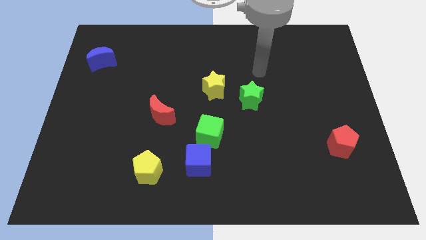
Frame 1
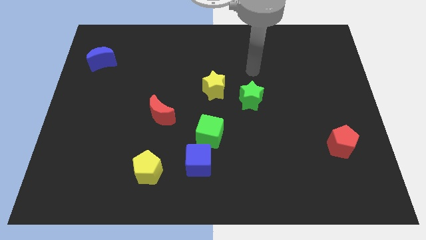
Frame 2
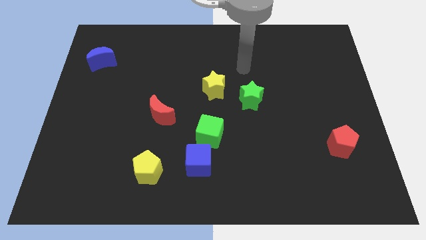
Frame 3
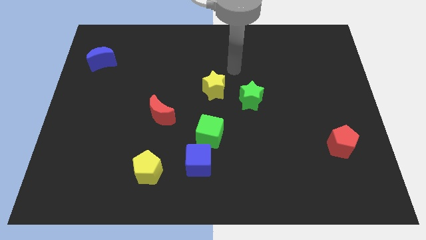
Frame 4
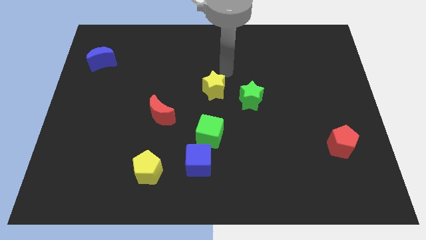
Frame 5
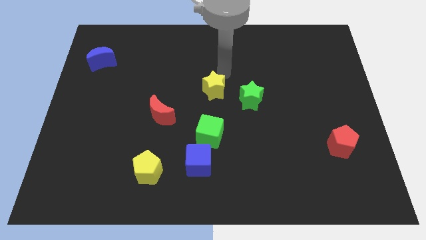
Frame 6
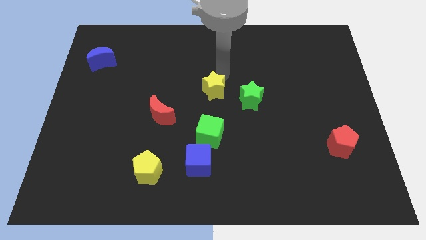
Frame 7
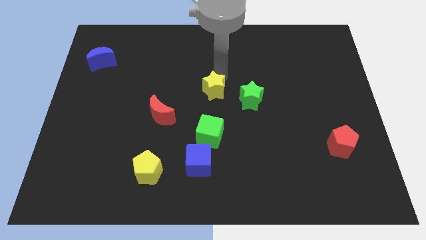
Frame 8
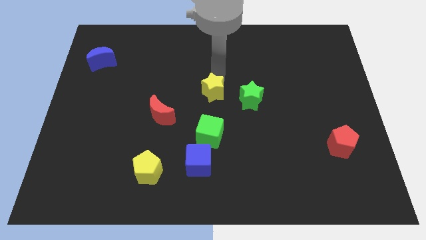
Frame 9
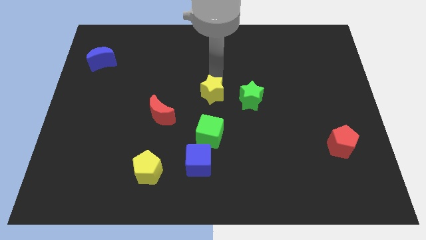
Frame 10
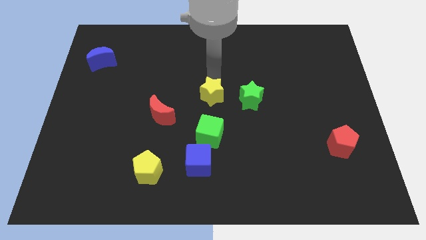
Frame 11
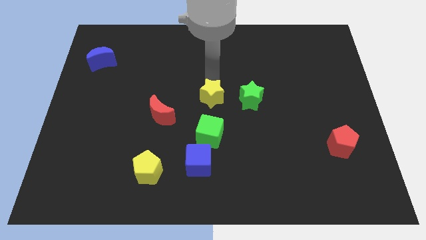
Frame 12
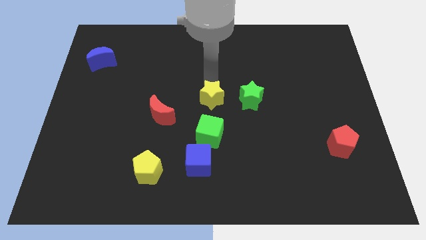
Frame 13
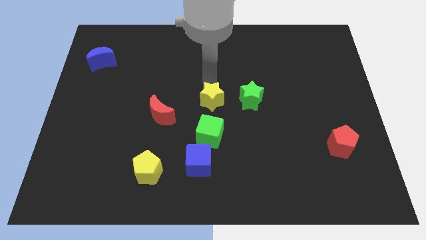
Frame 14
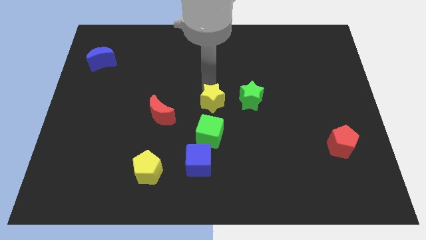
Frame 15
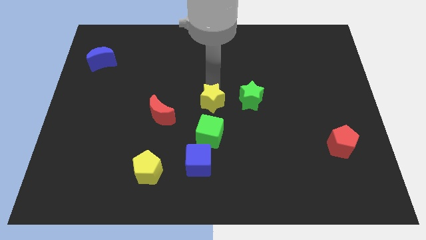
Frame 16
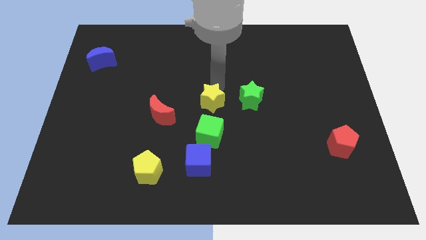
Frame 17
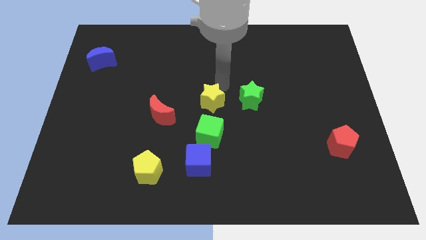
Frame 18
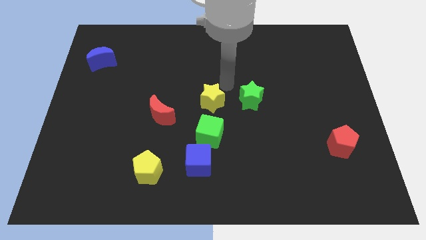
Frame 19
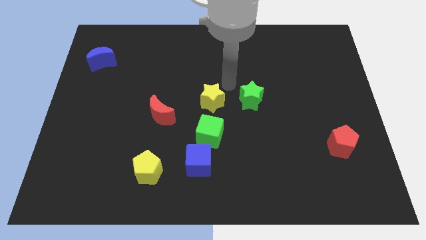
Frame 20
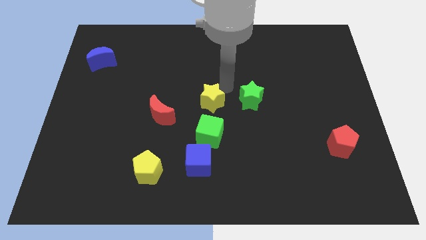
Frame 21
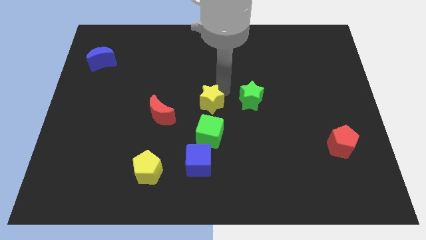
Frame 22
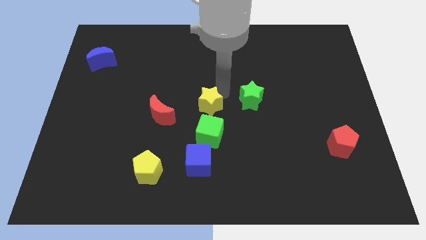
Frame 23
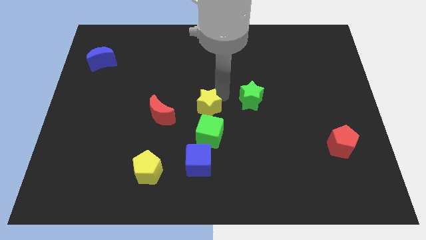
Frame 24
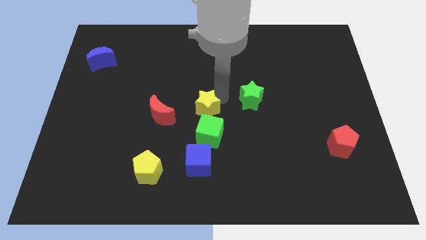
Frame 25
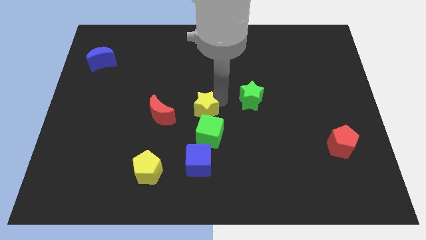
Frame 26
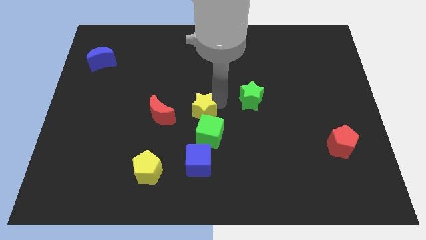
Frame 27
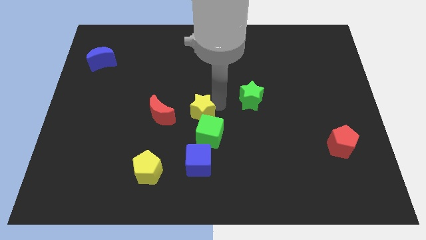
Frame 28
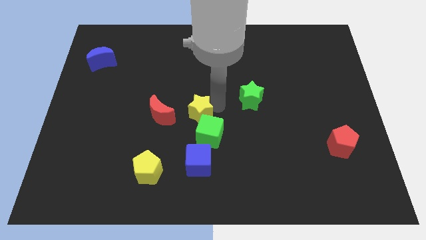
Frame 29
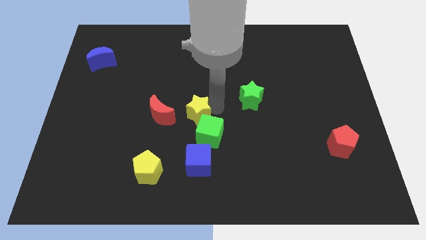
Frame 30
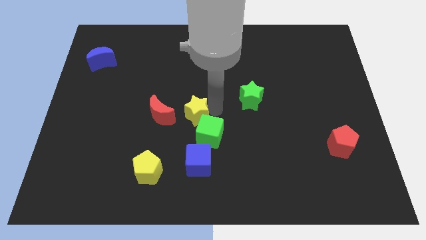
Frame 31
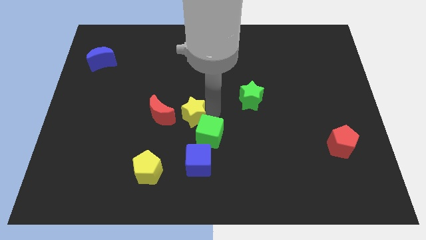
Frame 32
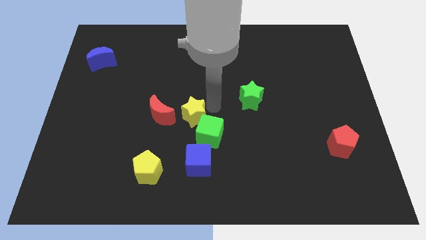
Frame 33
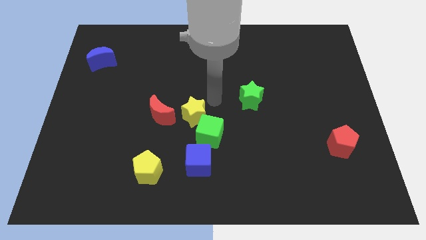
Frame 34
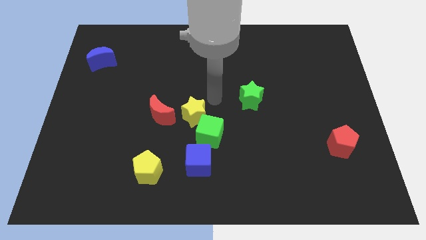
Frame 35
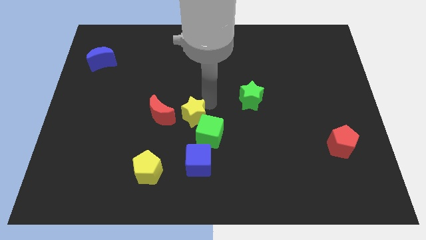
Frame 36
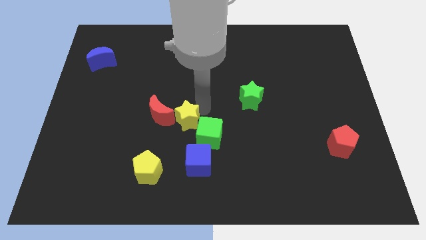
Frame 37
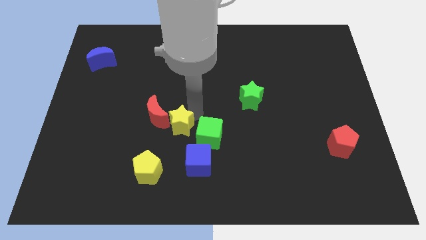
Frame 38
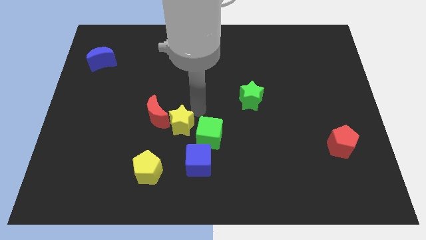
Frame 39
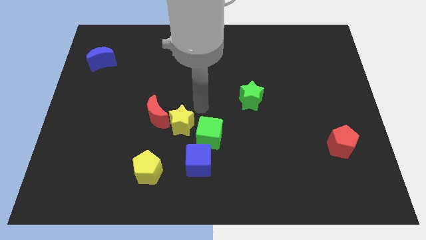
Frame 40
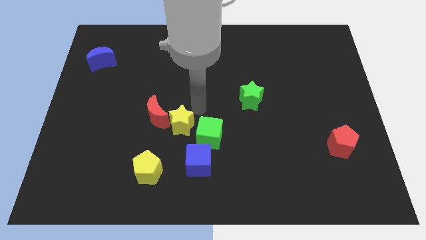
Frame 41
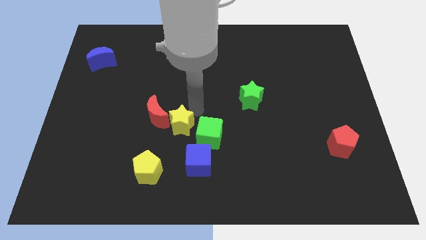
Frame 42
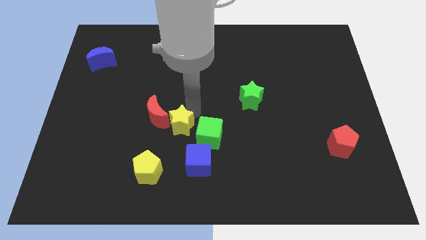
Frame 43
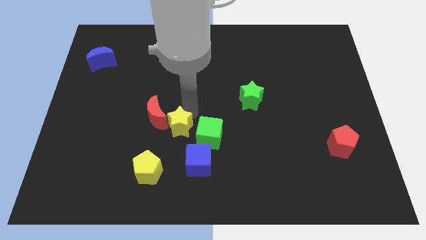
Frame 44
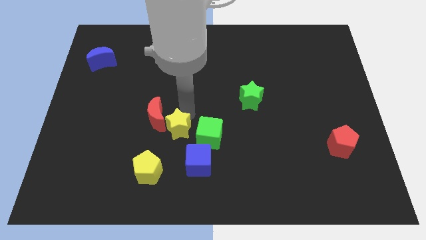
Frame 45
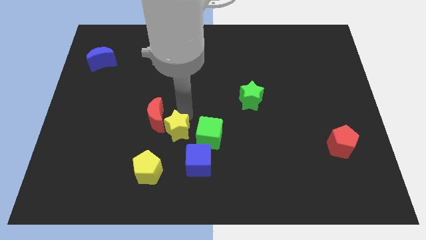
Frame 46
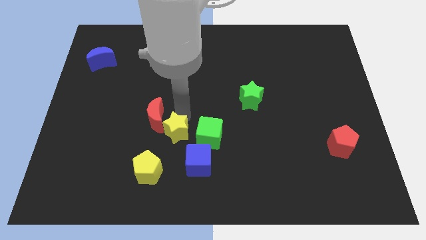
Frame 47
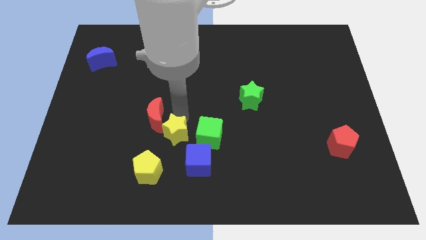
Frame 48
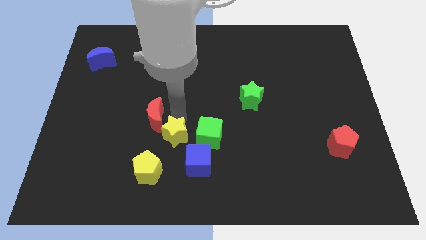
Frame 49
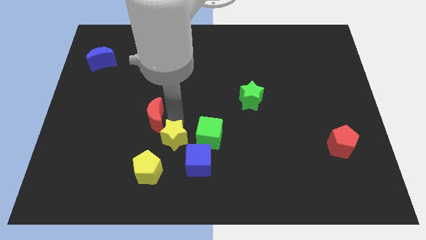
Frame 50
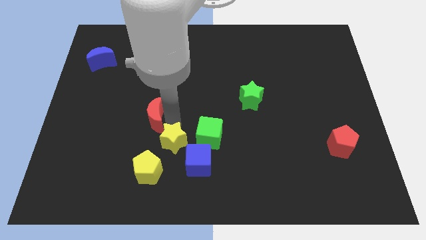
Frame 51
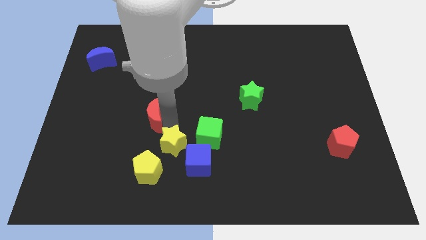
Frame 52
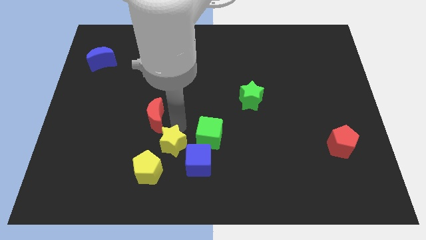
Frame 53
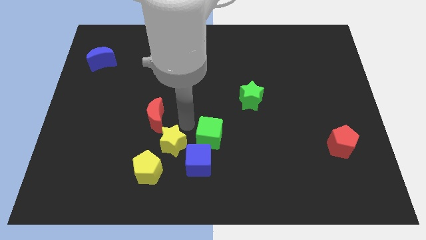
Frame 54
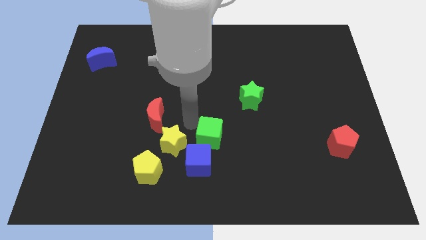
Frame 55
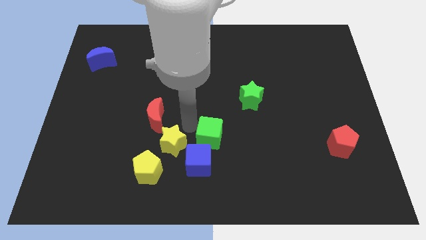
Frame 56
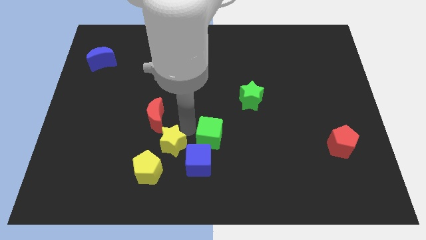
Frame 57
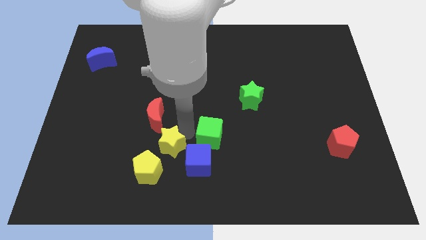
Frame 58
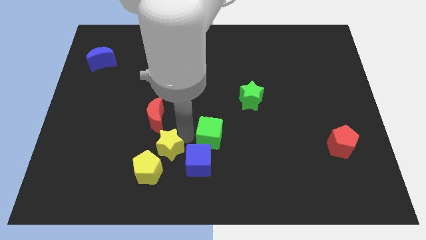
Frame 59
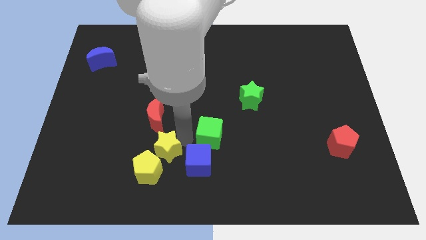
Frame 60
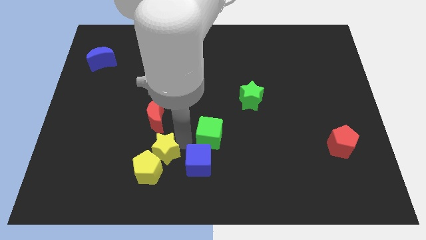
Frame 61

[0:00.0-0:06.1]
slide the yellow star next to the yellow pentagon

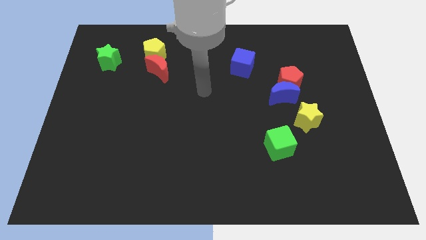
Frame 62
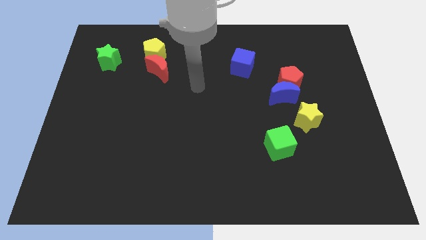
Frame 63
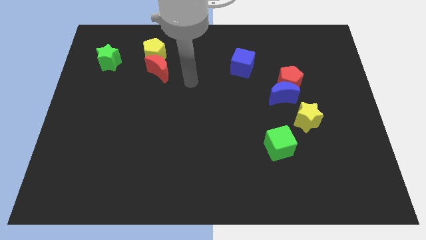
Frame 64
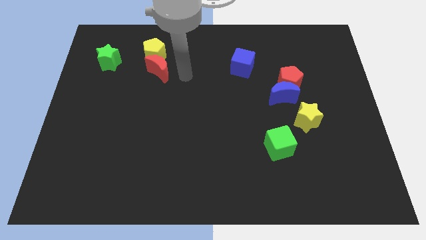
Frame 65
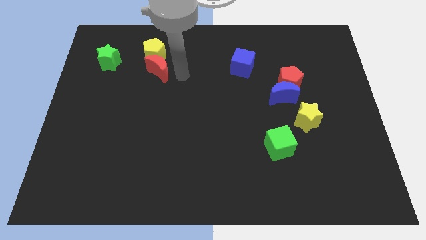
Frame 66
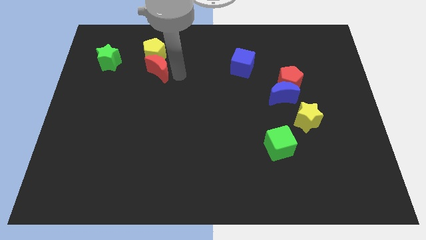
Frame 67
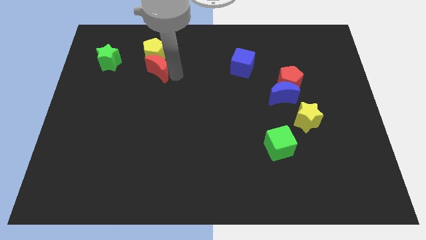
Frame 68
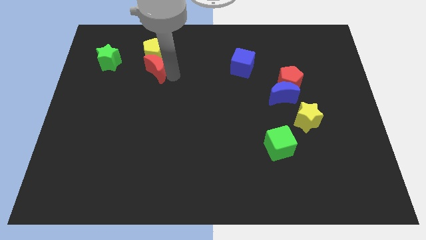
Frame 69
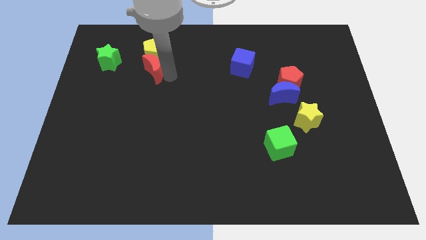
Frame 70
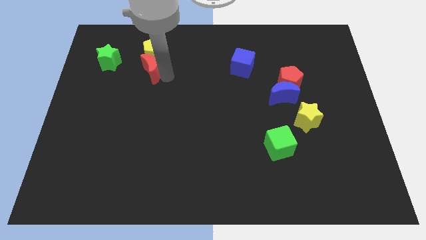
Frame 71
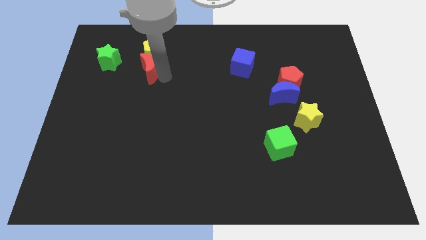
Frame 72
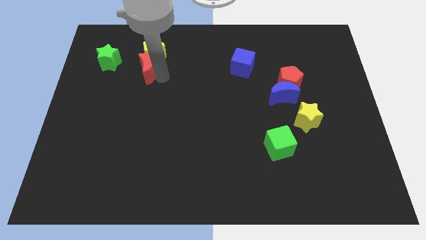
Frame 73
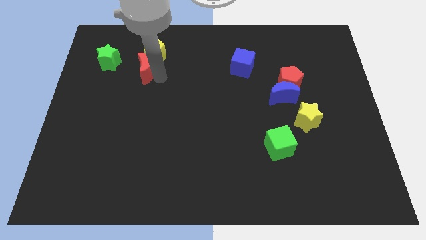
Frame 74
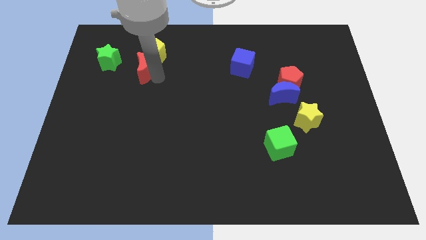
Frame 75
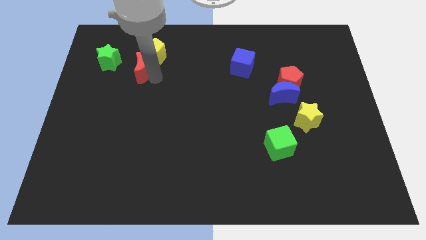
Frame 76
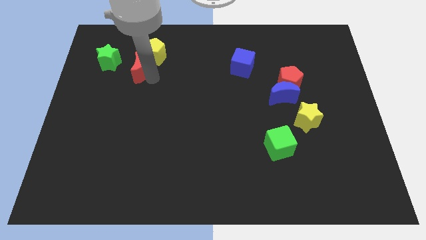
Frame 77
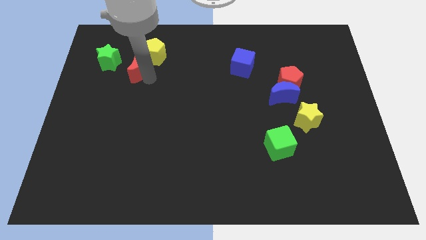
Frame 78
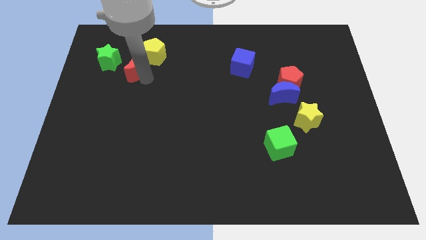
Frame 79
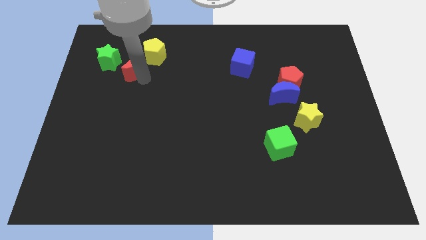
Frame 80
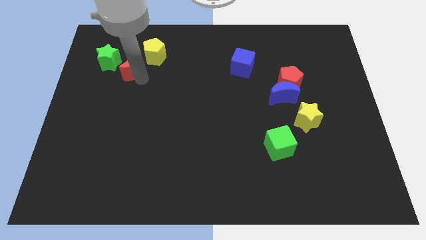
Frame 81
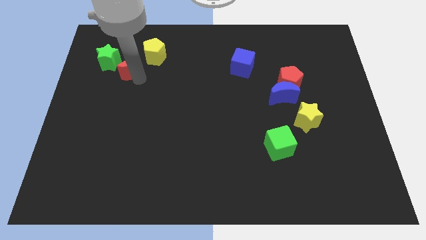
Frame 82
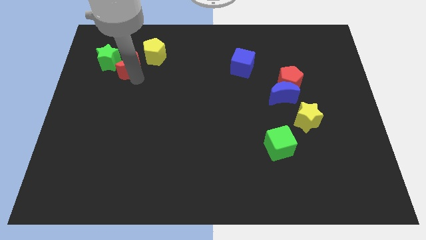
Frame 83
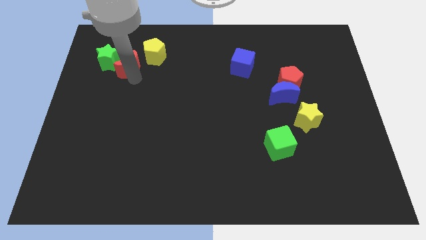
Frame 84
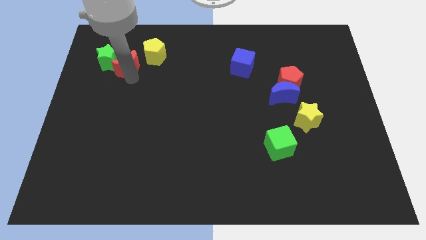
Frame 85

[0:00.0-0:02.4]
push the red moon towards the green star
